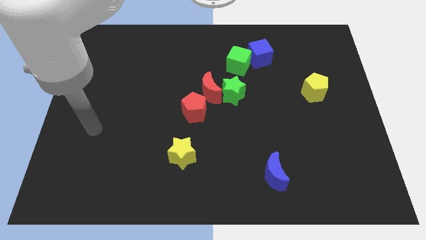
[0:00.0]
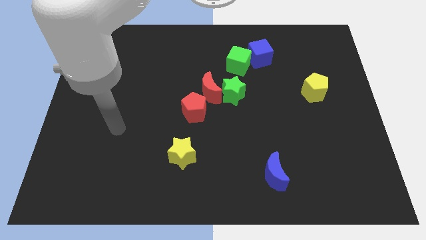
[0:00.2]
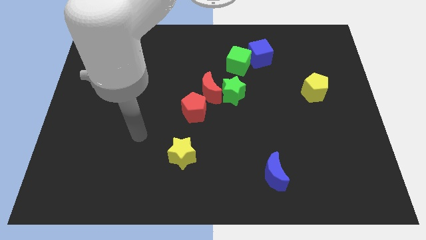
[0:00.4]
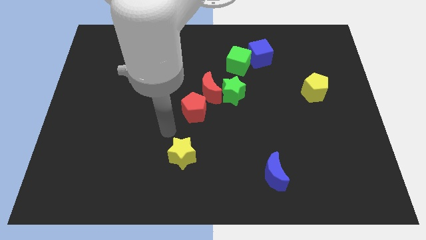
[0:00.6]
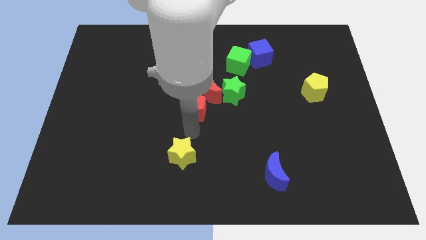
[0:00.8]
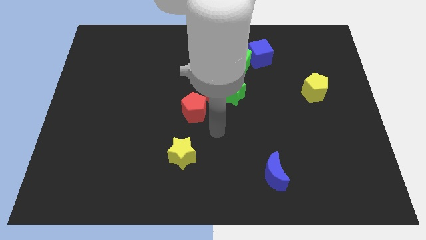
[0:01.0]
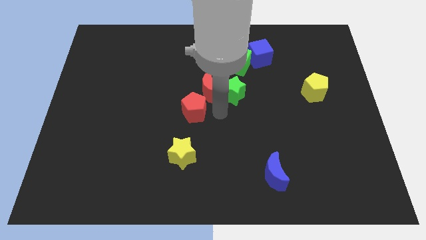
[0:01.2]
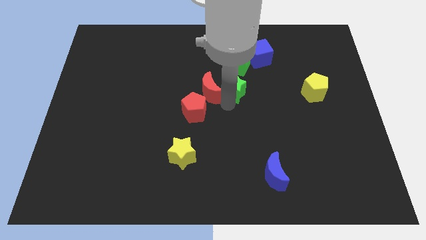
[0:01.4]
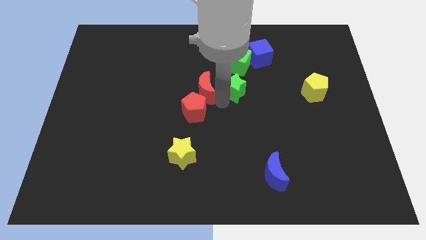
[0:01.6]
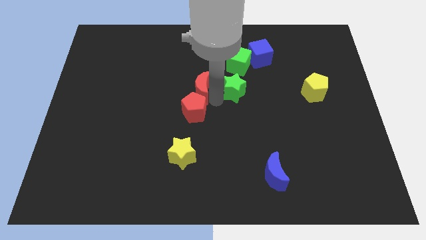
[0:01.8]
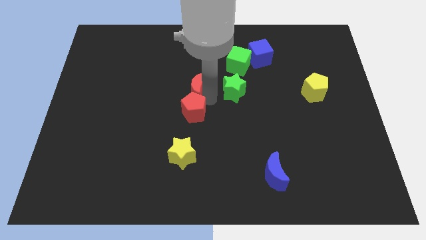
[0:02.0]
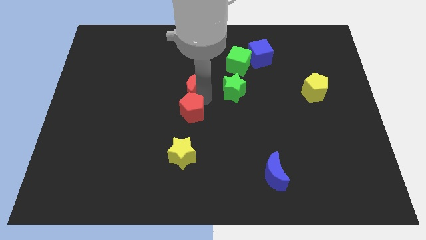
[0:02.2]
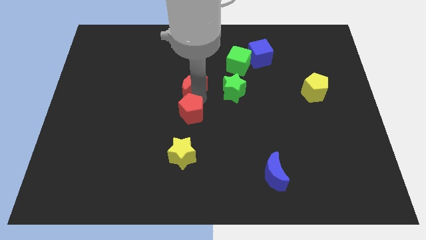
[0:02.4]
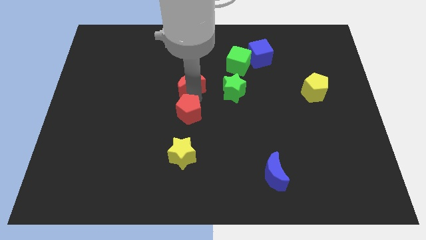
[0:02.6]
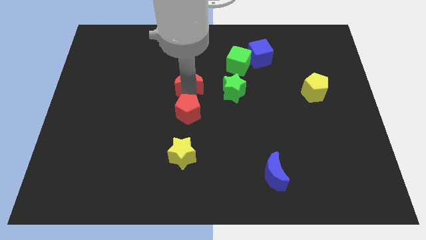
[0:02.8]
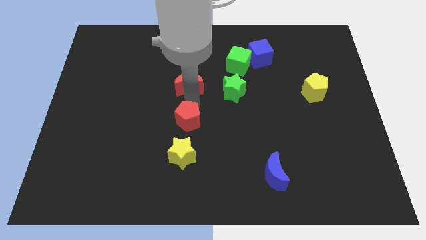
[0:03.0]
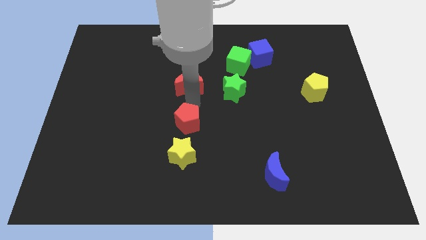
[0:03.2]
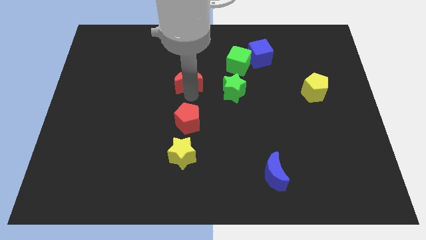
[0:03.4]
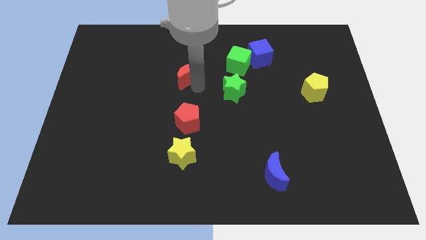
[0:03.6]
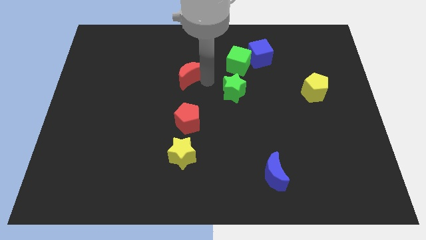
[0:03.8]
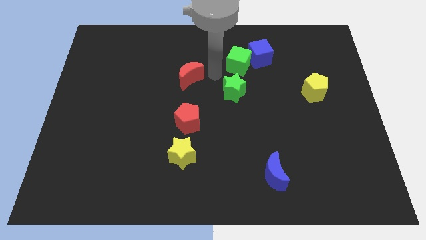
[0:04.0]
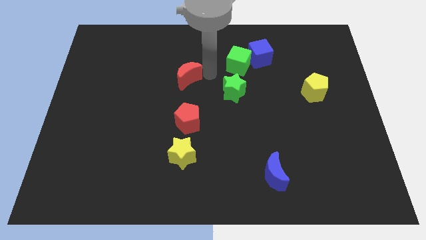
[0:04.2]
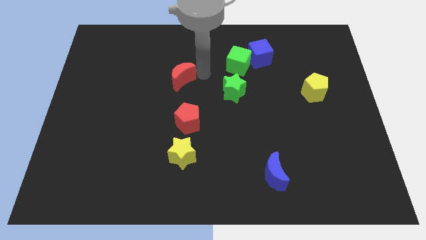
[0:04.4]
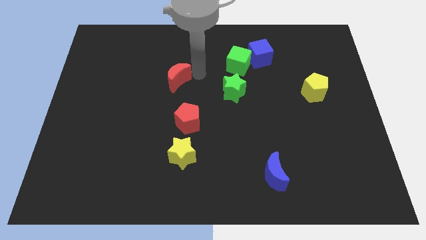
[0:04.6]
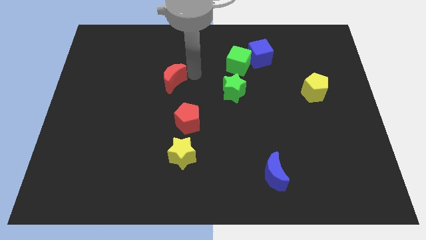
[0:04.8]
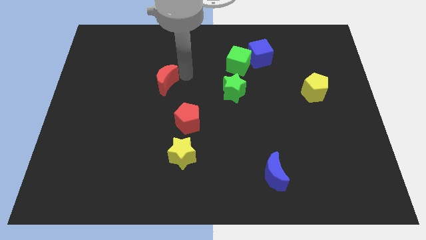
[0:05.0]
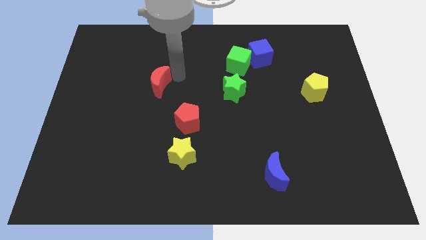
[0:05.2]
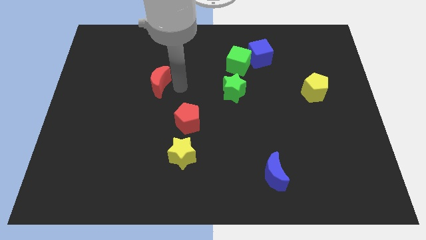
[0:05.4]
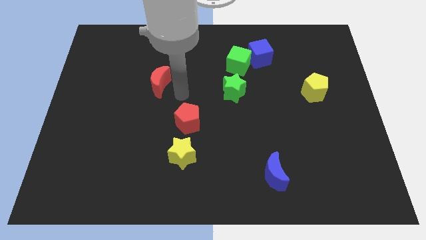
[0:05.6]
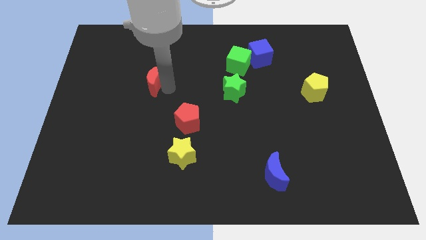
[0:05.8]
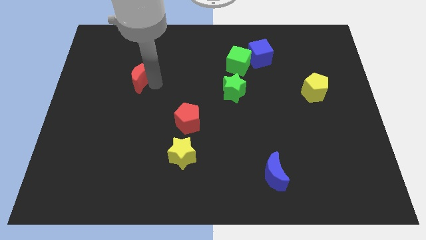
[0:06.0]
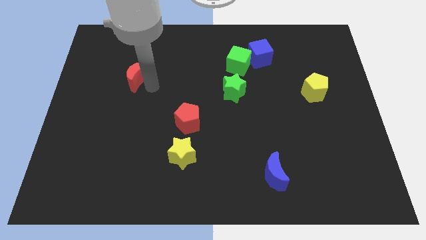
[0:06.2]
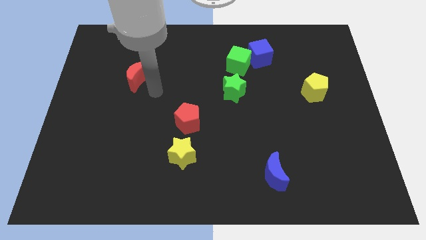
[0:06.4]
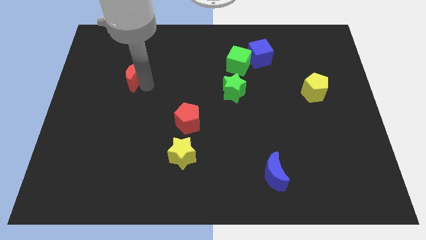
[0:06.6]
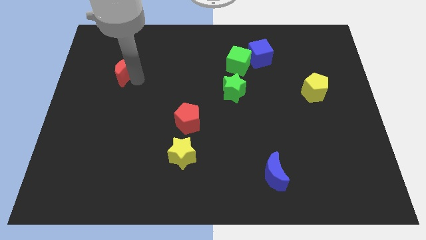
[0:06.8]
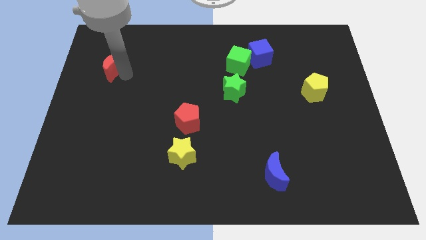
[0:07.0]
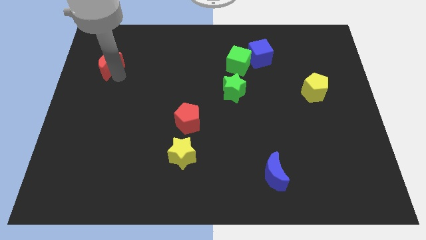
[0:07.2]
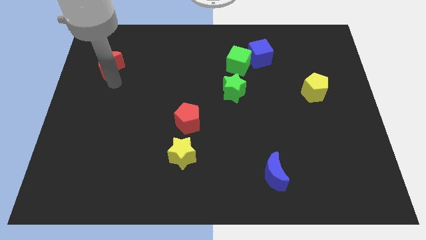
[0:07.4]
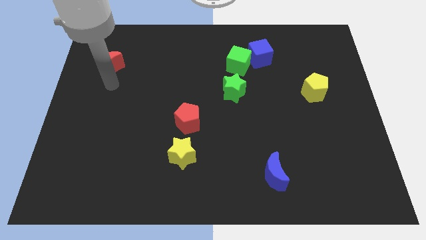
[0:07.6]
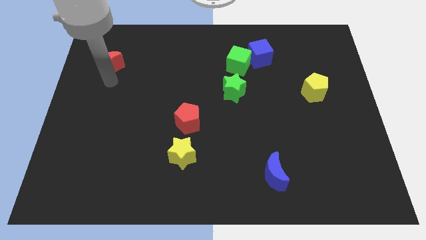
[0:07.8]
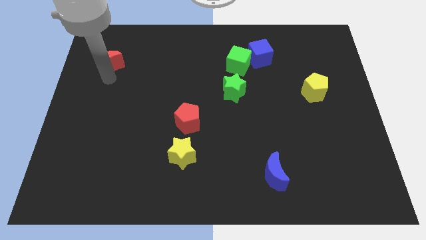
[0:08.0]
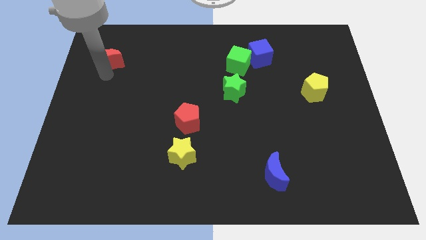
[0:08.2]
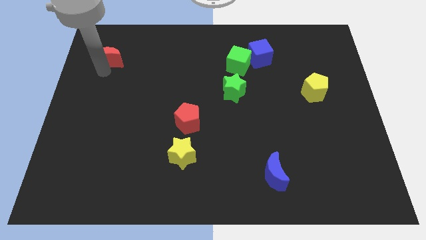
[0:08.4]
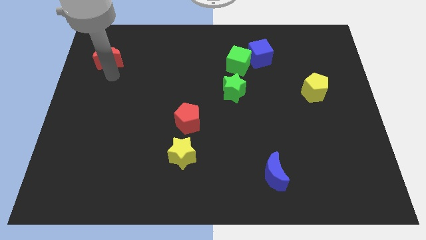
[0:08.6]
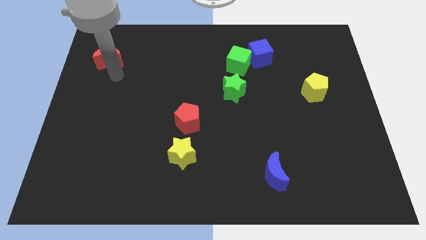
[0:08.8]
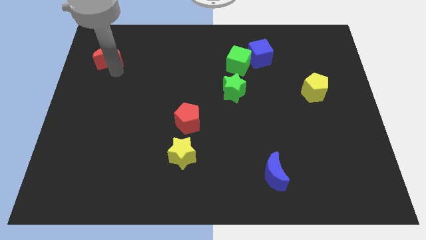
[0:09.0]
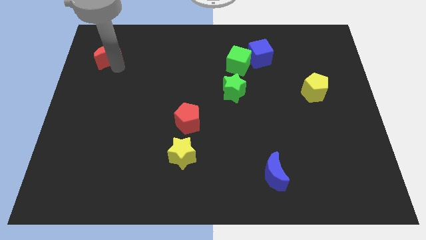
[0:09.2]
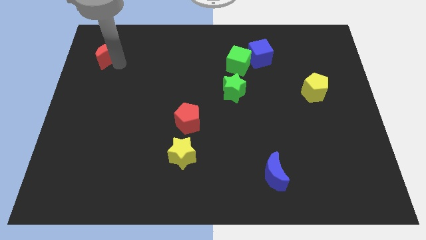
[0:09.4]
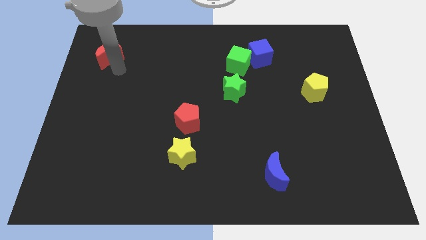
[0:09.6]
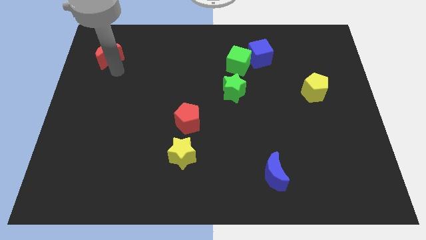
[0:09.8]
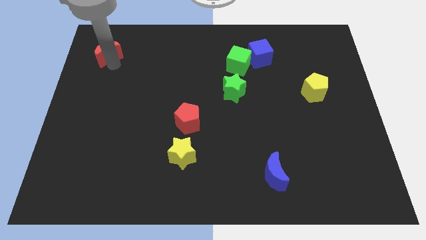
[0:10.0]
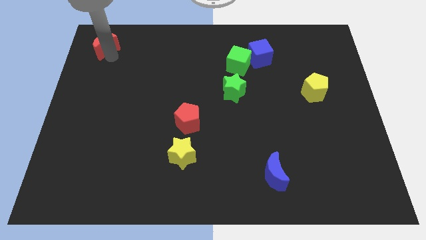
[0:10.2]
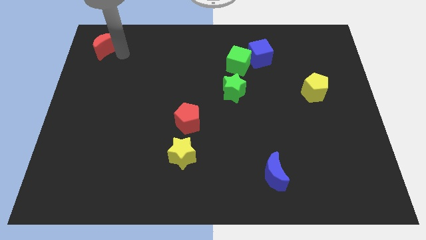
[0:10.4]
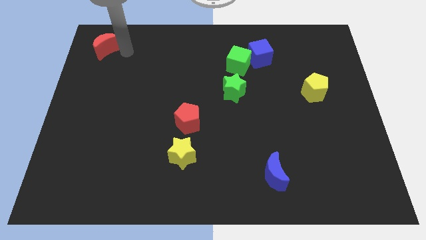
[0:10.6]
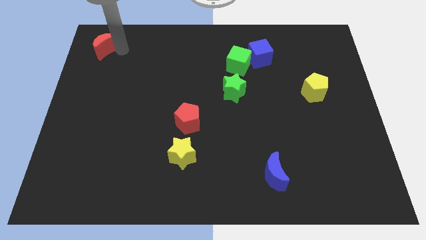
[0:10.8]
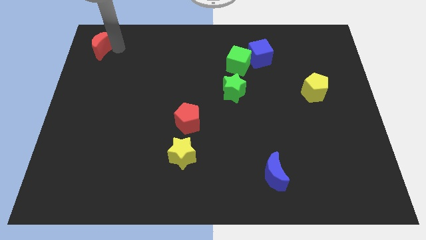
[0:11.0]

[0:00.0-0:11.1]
push the red moon to the top left corner

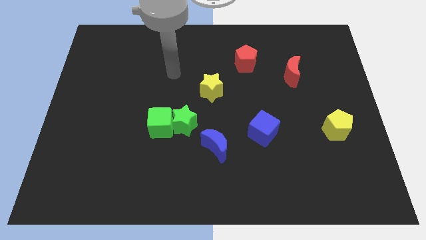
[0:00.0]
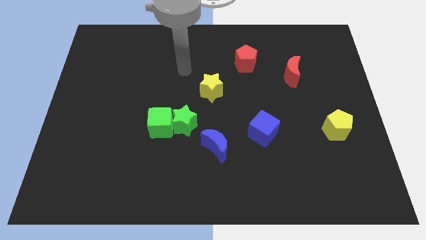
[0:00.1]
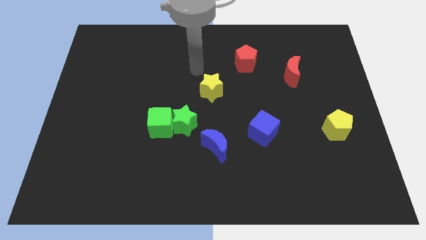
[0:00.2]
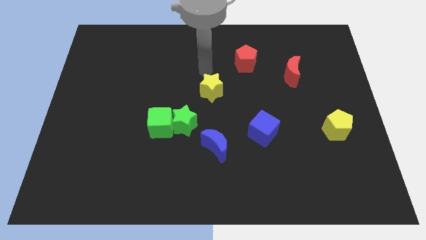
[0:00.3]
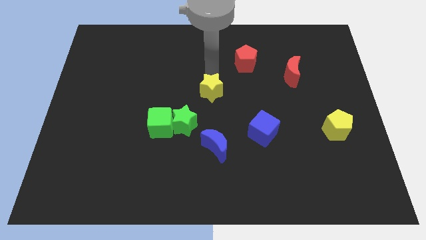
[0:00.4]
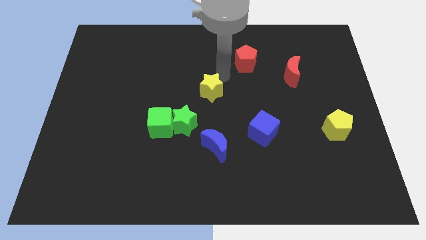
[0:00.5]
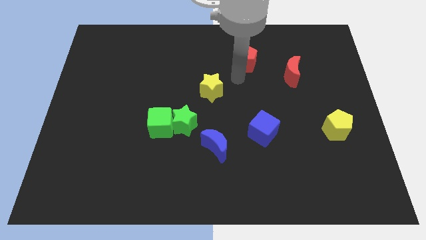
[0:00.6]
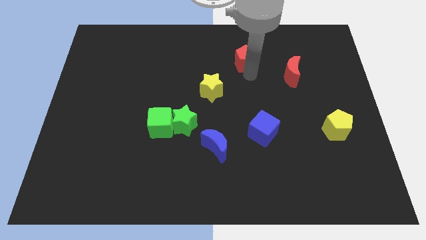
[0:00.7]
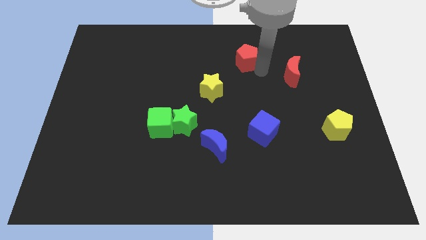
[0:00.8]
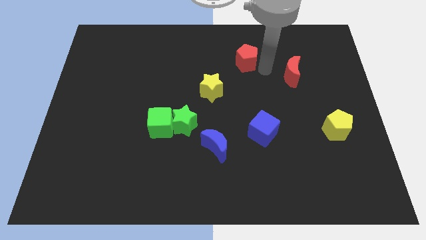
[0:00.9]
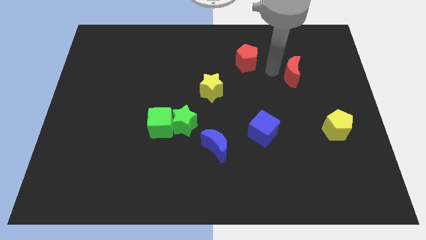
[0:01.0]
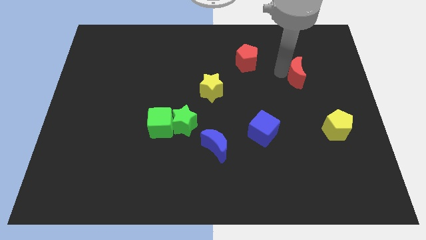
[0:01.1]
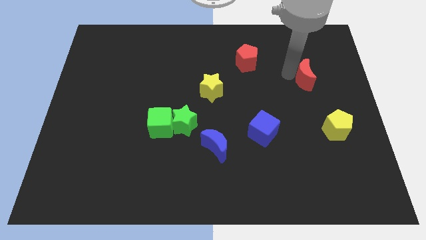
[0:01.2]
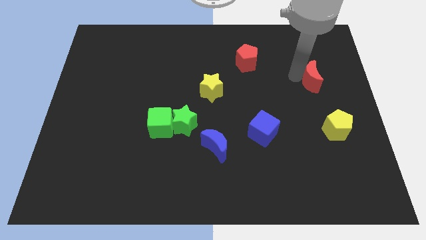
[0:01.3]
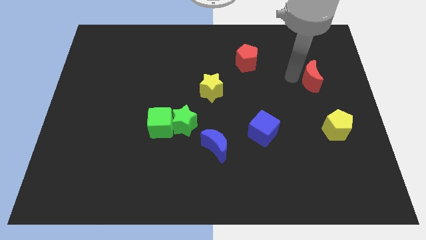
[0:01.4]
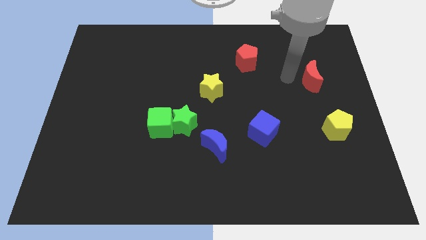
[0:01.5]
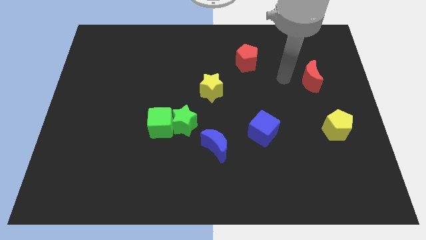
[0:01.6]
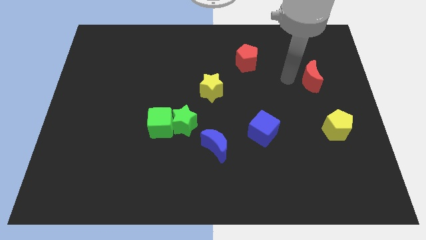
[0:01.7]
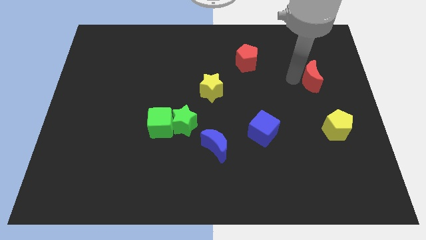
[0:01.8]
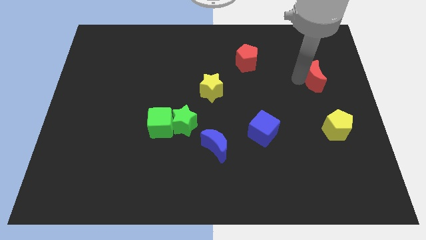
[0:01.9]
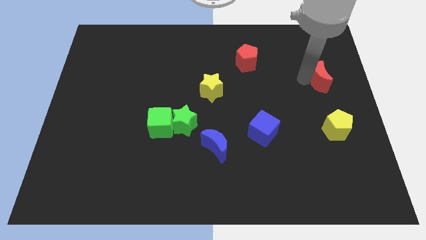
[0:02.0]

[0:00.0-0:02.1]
put the red moon to the right side of the board
